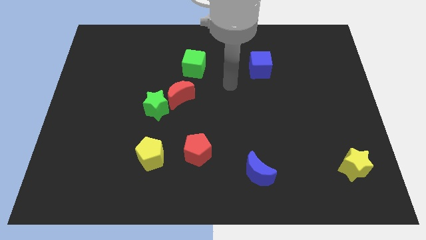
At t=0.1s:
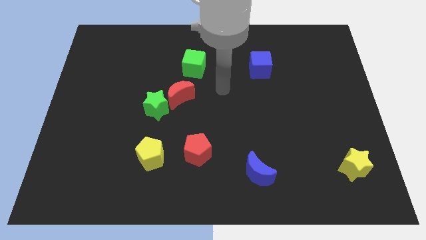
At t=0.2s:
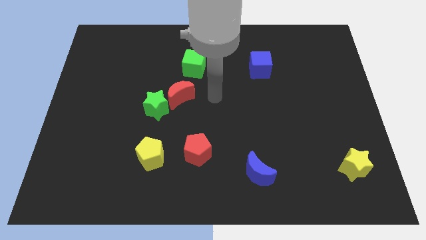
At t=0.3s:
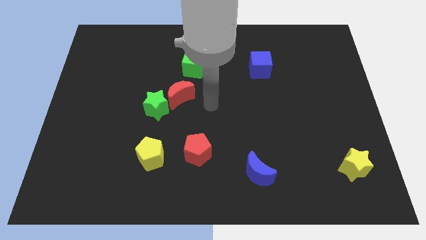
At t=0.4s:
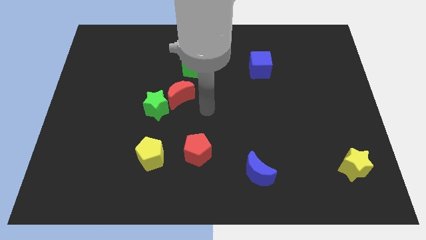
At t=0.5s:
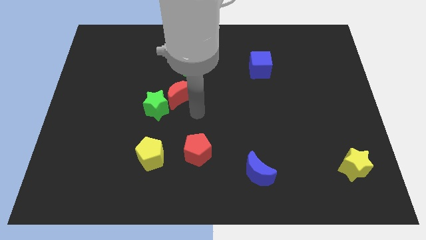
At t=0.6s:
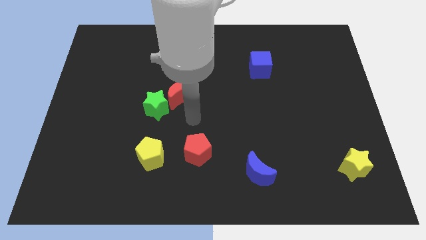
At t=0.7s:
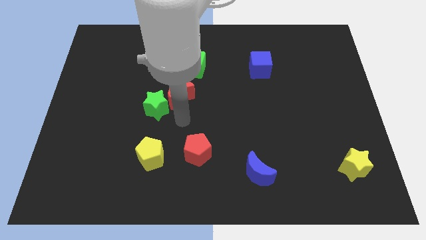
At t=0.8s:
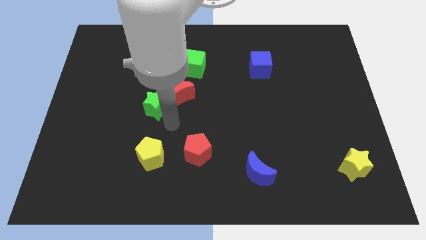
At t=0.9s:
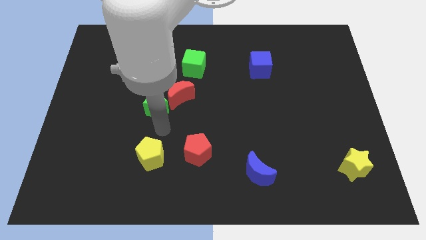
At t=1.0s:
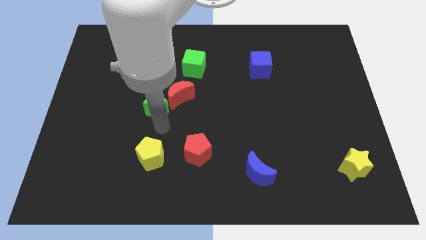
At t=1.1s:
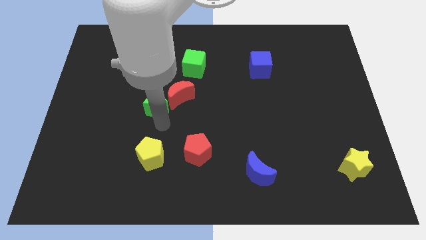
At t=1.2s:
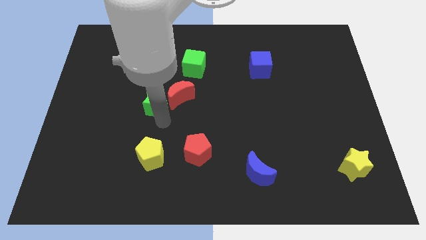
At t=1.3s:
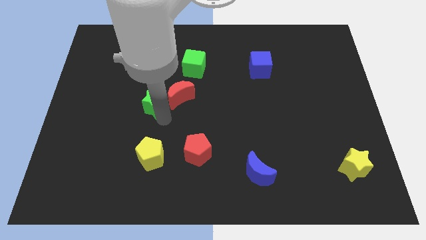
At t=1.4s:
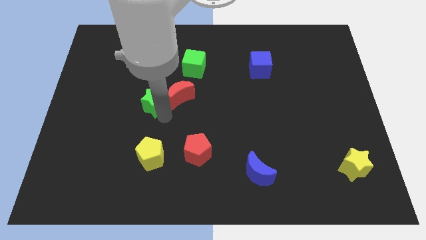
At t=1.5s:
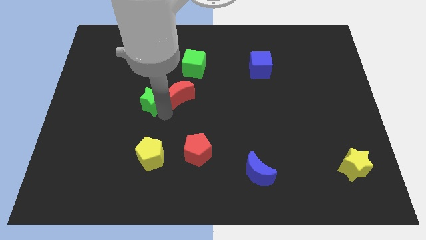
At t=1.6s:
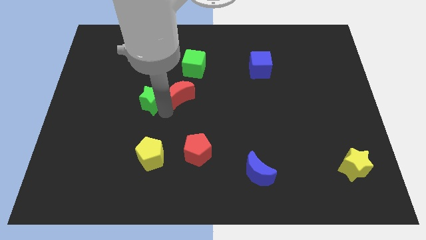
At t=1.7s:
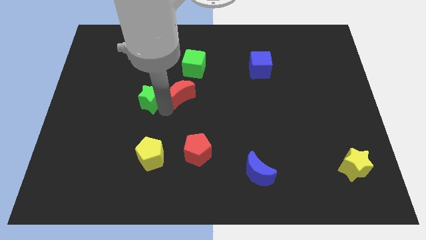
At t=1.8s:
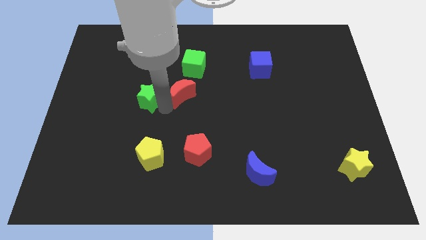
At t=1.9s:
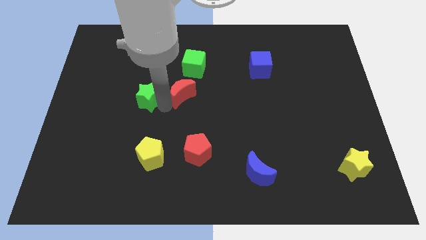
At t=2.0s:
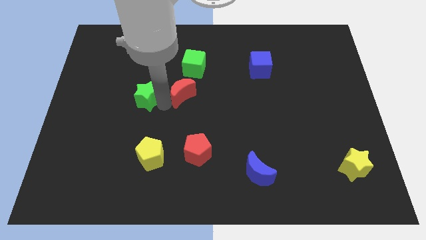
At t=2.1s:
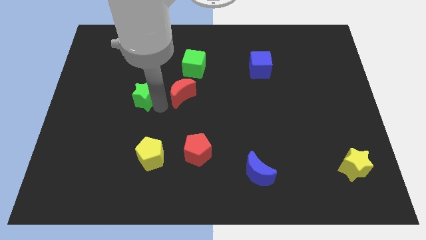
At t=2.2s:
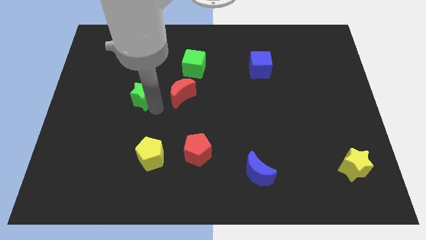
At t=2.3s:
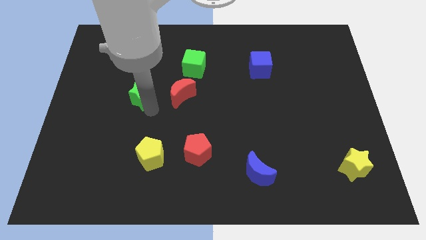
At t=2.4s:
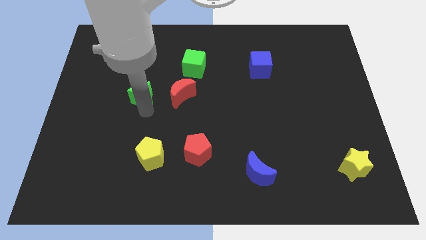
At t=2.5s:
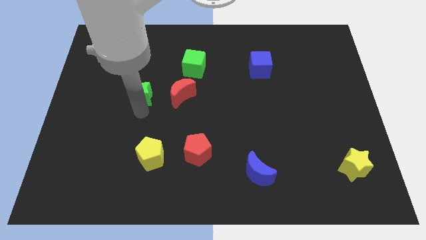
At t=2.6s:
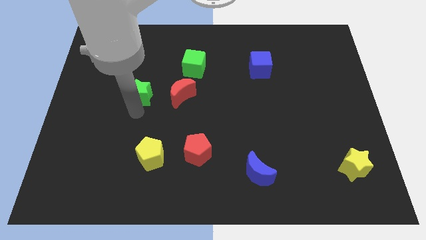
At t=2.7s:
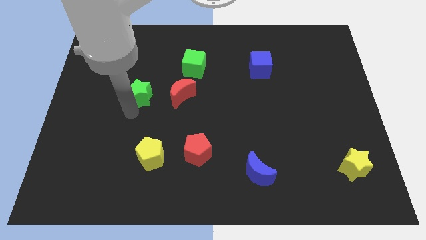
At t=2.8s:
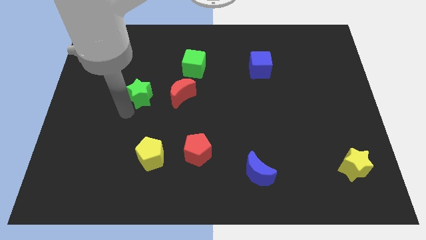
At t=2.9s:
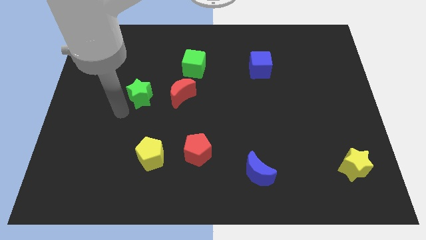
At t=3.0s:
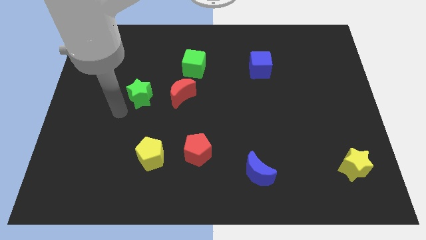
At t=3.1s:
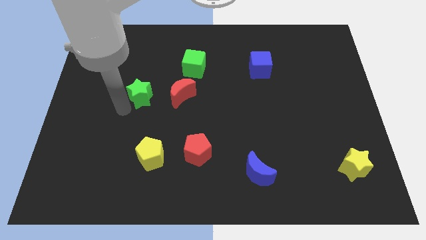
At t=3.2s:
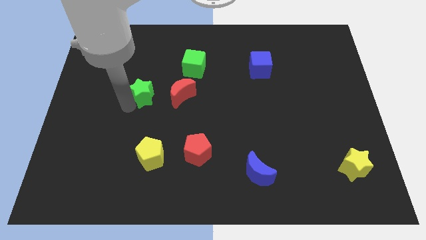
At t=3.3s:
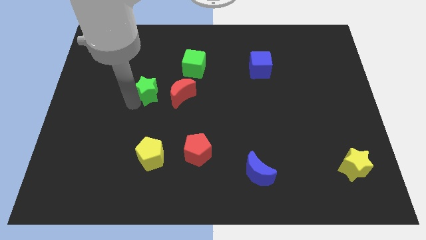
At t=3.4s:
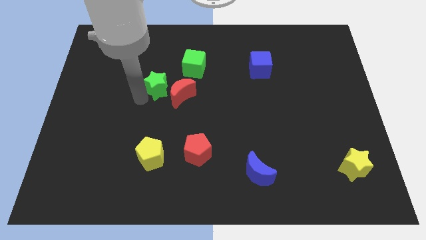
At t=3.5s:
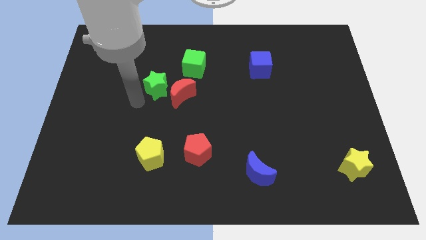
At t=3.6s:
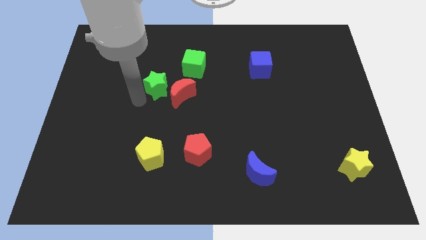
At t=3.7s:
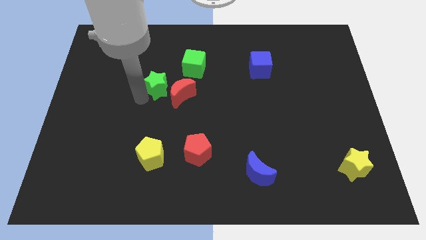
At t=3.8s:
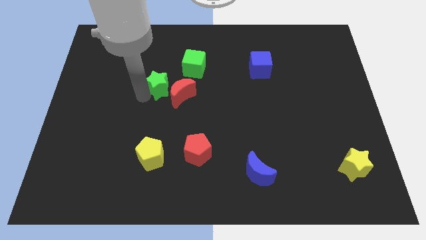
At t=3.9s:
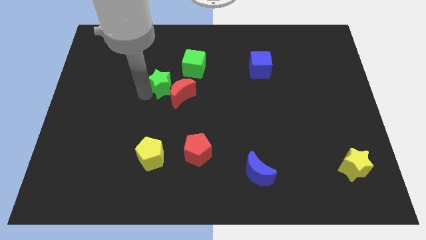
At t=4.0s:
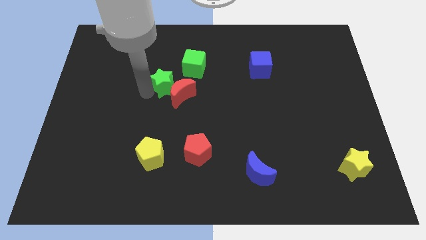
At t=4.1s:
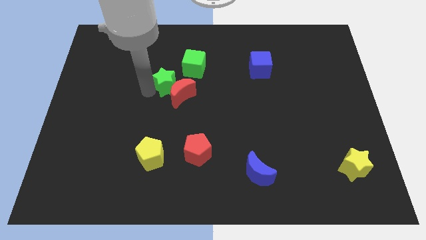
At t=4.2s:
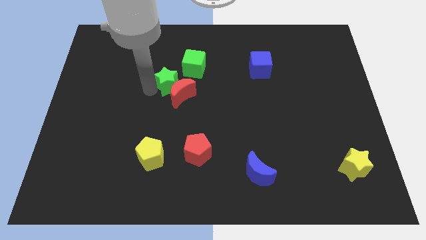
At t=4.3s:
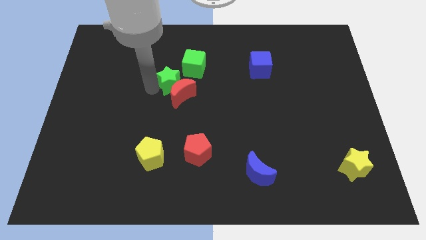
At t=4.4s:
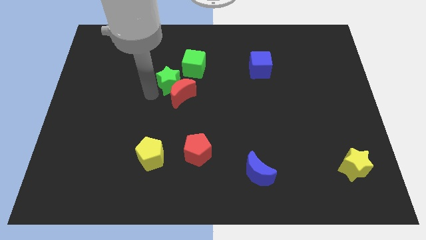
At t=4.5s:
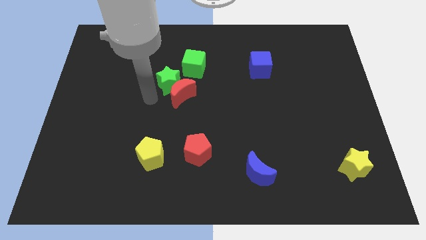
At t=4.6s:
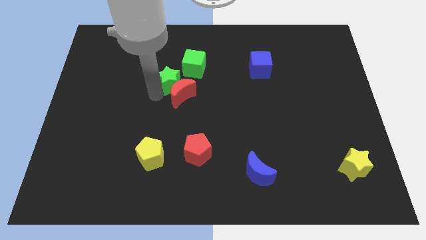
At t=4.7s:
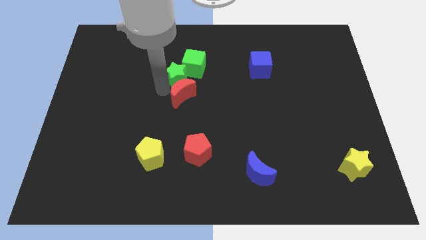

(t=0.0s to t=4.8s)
move the green star to the green cube

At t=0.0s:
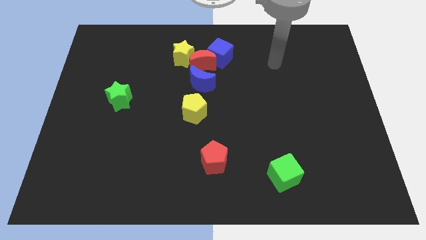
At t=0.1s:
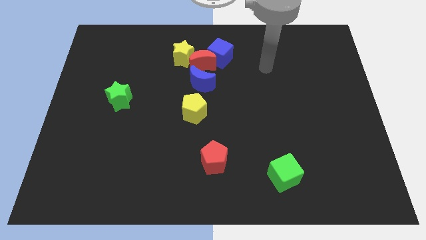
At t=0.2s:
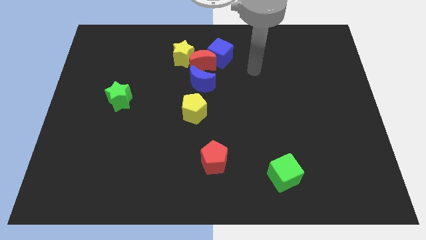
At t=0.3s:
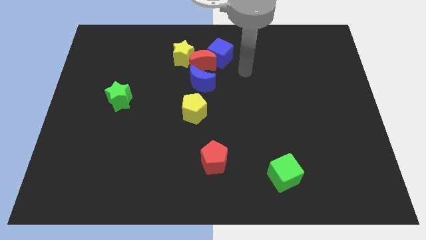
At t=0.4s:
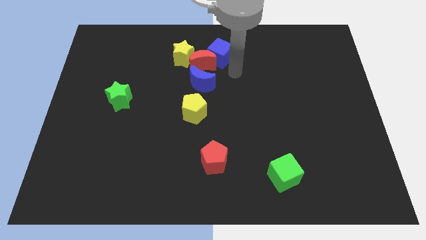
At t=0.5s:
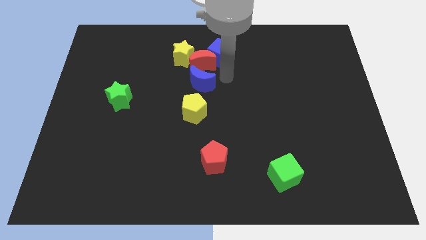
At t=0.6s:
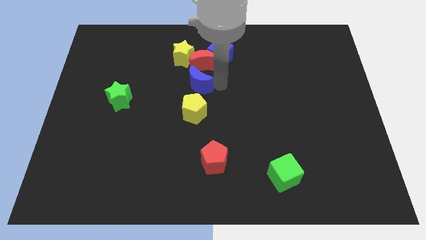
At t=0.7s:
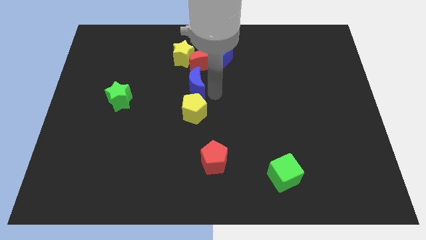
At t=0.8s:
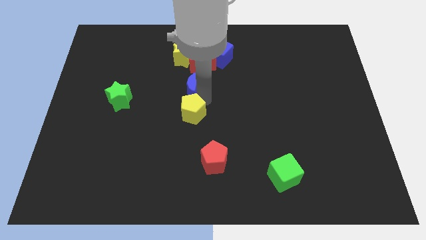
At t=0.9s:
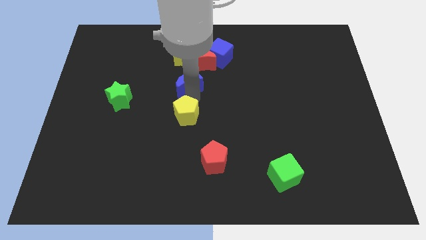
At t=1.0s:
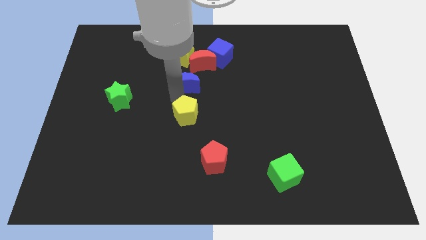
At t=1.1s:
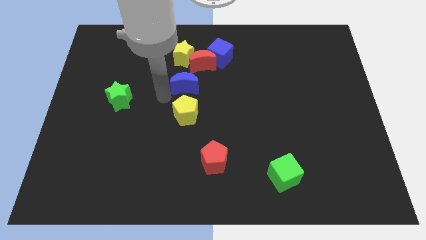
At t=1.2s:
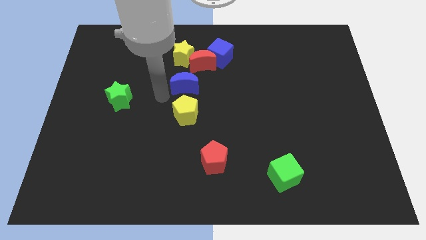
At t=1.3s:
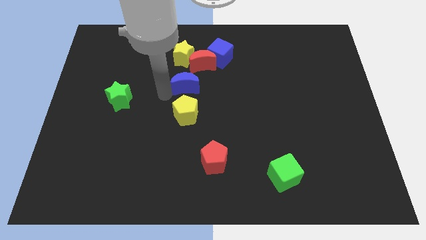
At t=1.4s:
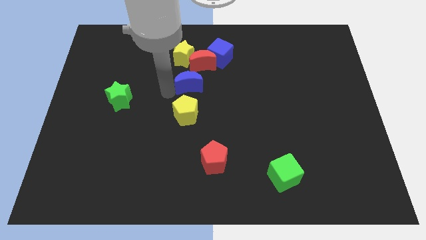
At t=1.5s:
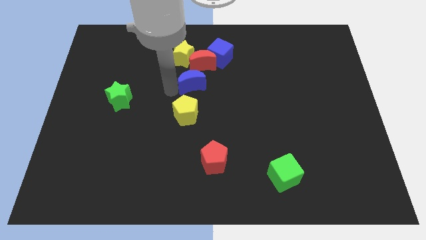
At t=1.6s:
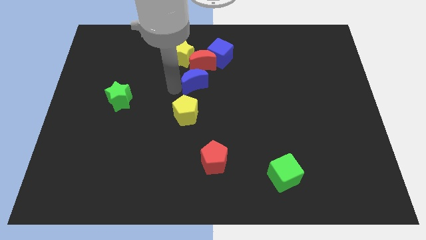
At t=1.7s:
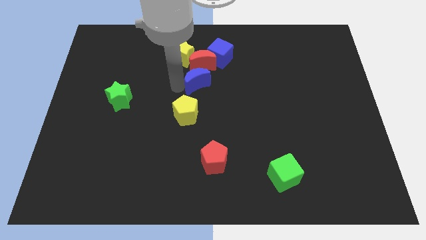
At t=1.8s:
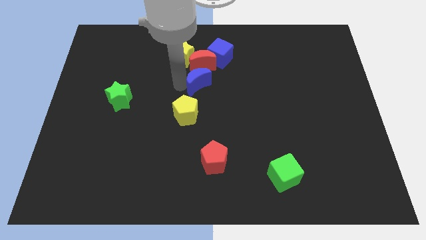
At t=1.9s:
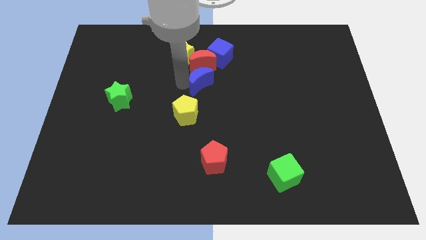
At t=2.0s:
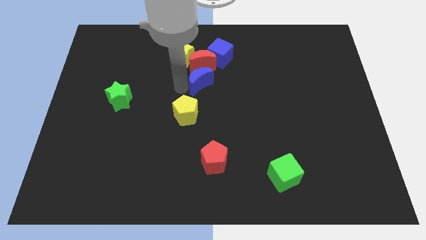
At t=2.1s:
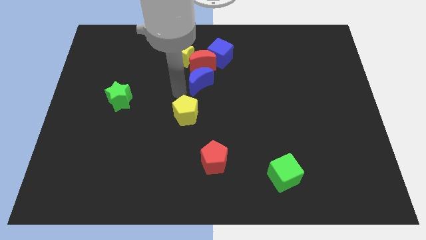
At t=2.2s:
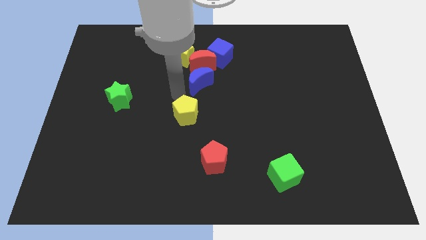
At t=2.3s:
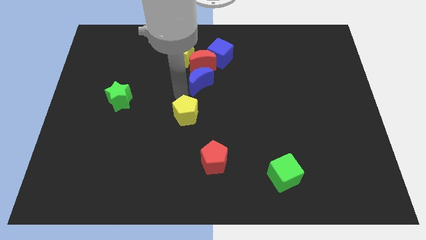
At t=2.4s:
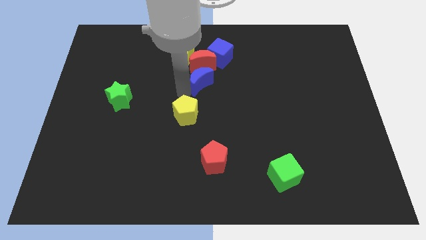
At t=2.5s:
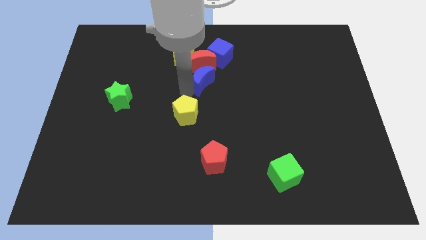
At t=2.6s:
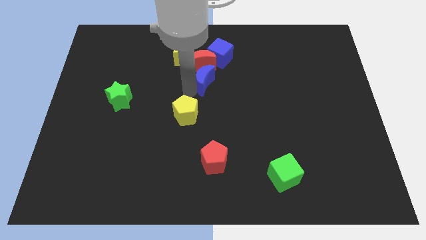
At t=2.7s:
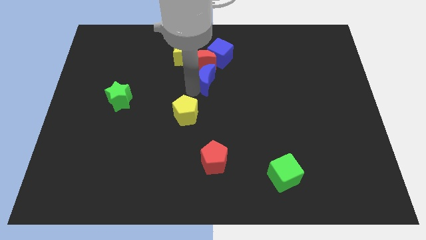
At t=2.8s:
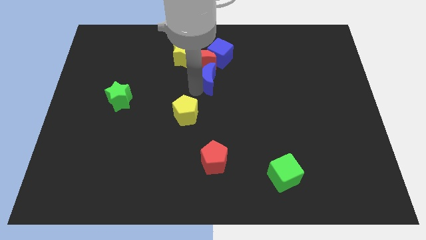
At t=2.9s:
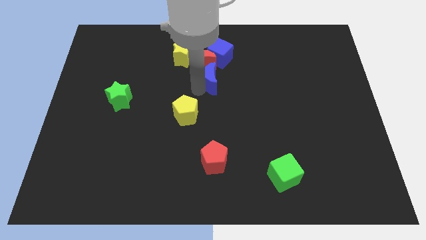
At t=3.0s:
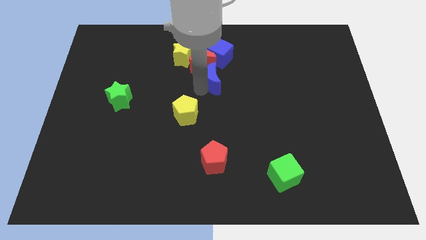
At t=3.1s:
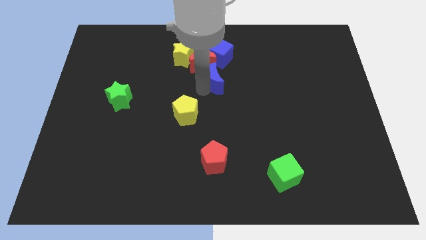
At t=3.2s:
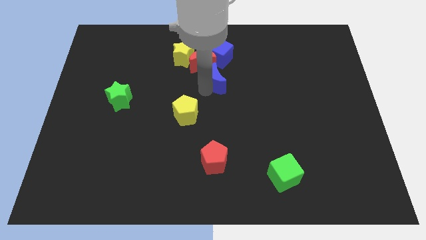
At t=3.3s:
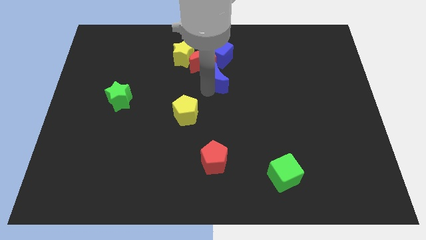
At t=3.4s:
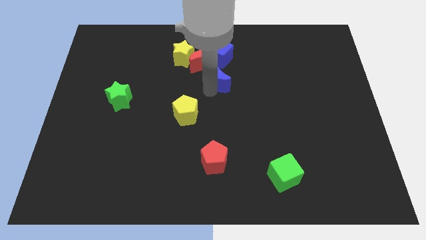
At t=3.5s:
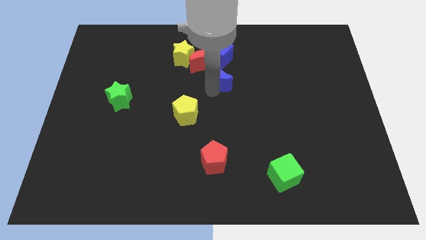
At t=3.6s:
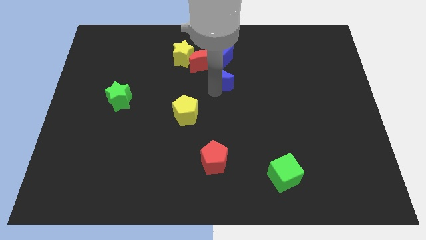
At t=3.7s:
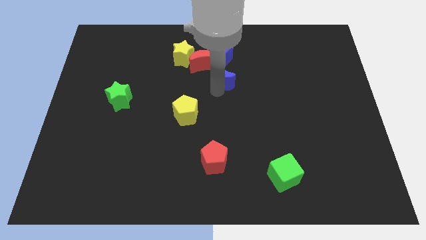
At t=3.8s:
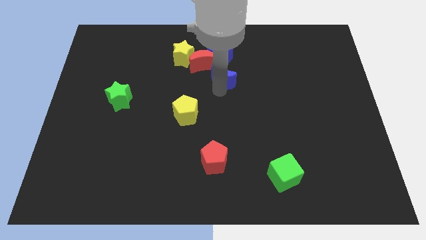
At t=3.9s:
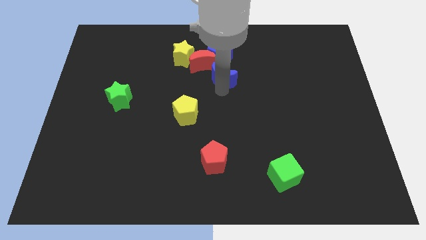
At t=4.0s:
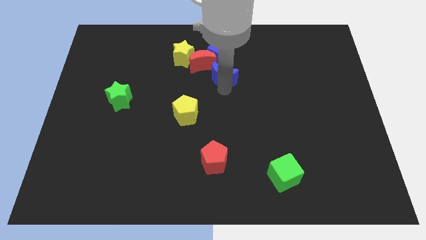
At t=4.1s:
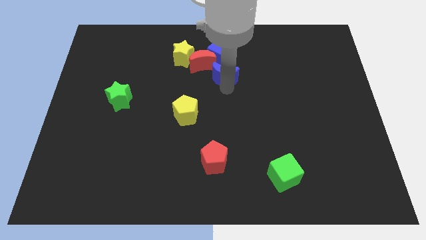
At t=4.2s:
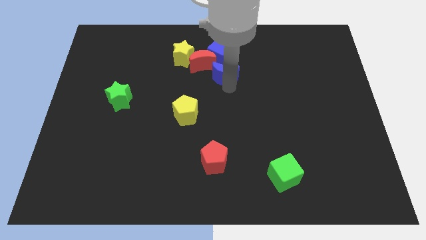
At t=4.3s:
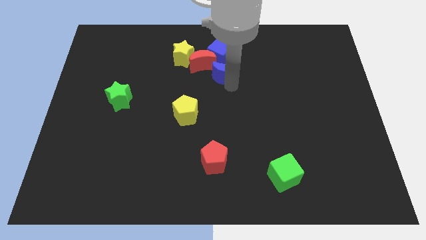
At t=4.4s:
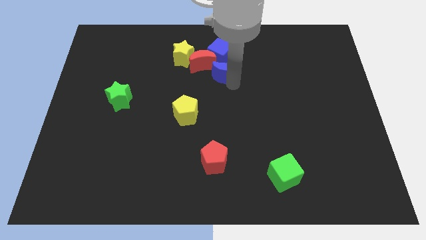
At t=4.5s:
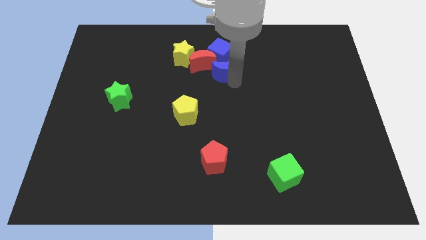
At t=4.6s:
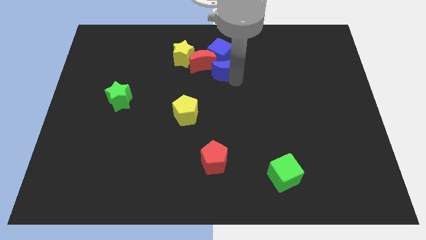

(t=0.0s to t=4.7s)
put the blue moon to the blue cube
